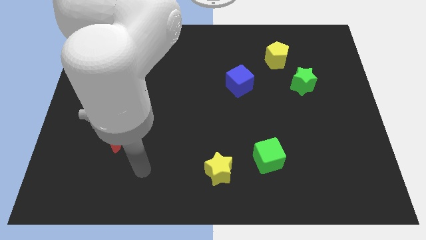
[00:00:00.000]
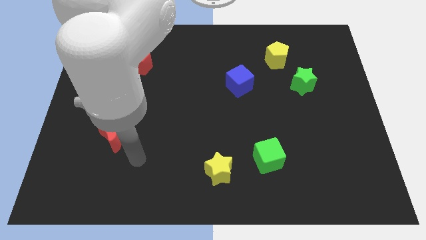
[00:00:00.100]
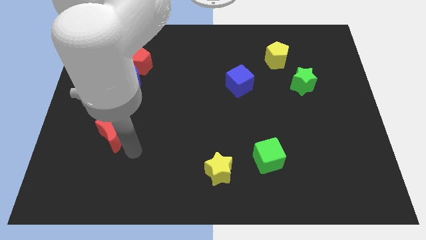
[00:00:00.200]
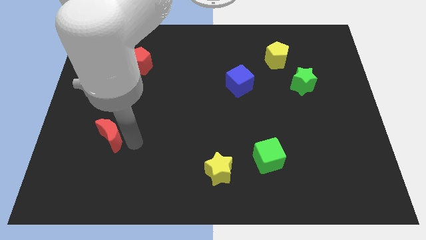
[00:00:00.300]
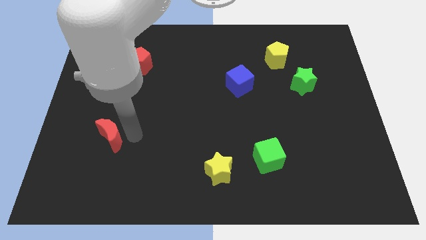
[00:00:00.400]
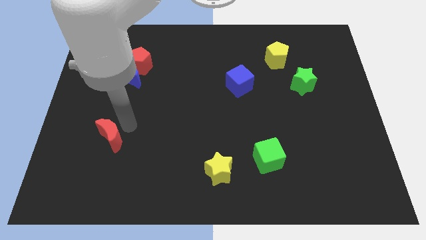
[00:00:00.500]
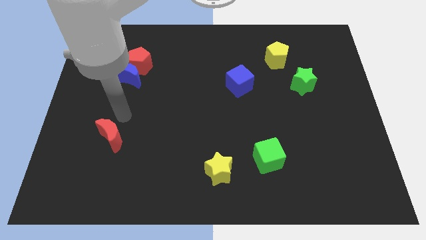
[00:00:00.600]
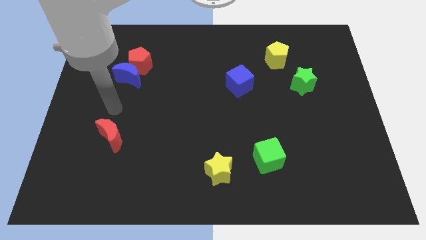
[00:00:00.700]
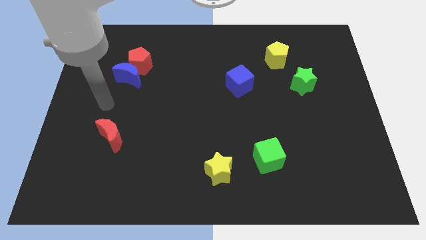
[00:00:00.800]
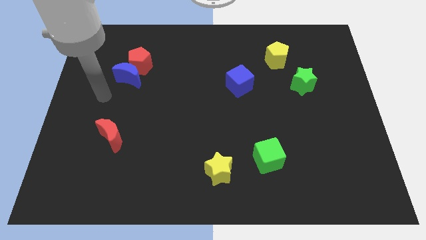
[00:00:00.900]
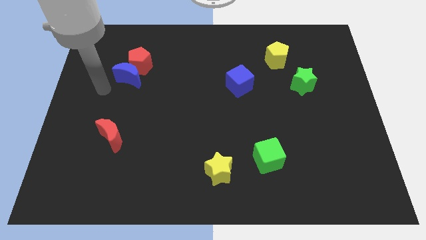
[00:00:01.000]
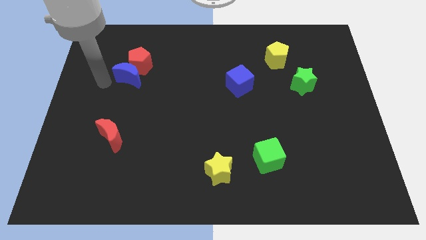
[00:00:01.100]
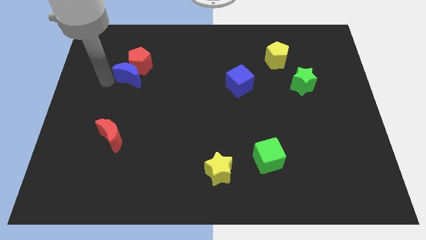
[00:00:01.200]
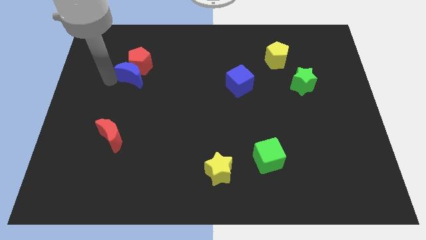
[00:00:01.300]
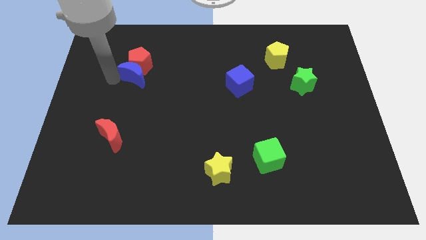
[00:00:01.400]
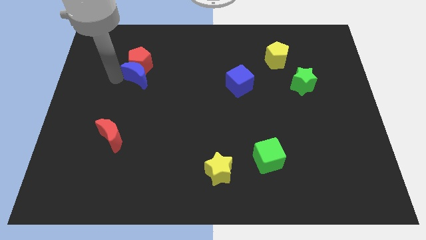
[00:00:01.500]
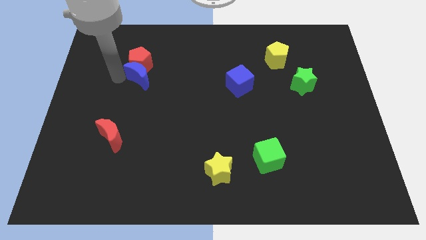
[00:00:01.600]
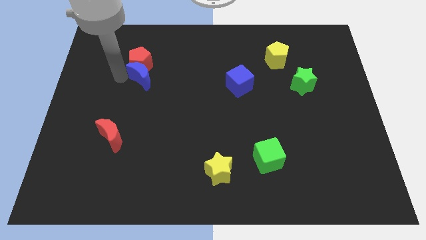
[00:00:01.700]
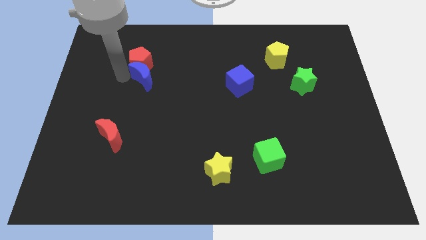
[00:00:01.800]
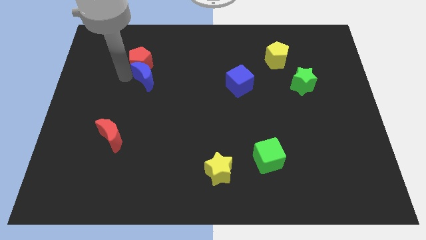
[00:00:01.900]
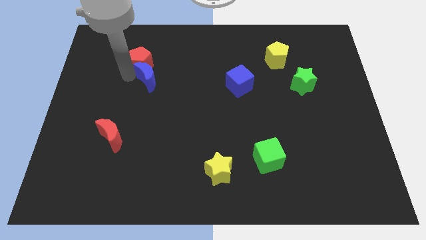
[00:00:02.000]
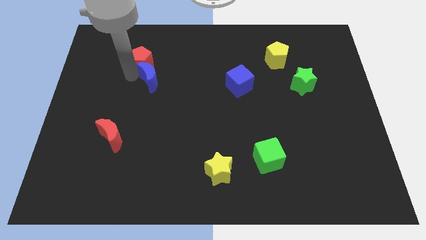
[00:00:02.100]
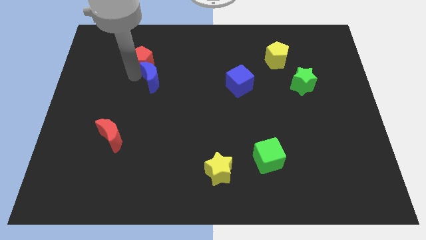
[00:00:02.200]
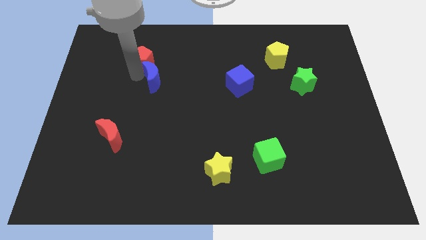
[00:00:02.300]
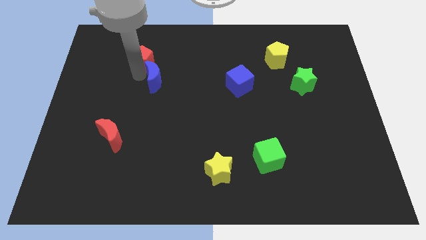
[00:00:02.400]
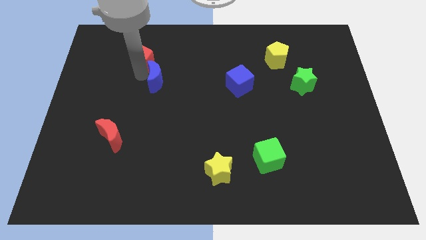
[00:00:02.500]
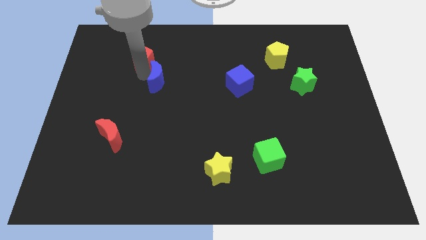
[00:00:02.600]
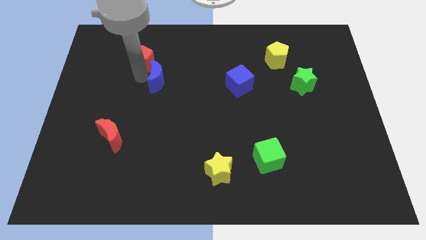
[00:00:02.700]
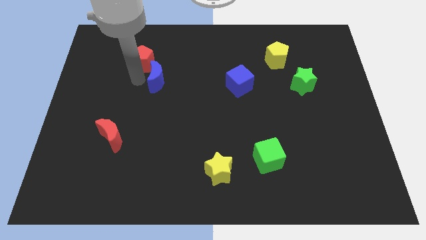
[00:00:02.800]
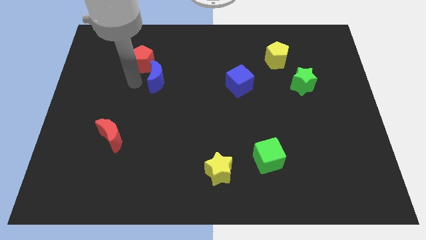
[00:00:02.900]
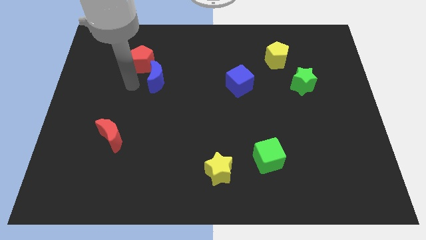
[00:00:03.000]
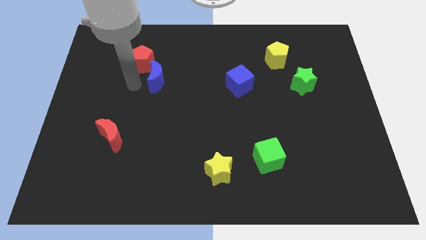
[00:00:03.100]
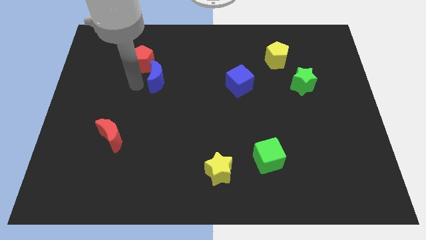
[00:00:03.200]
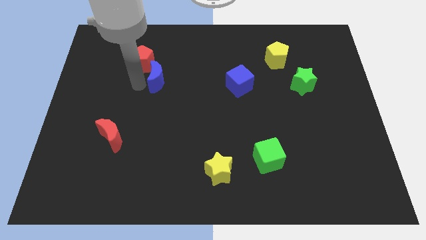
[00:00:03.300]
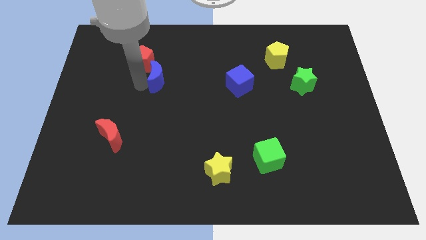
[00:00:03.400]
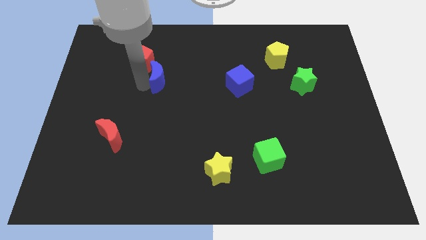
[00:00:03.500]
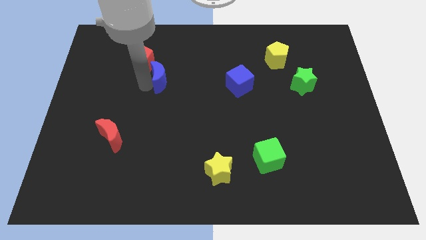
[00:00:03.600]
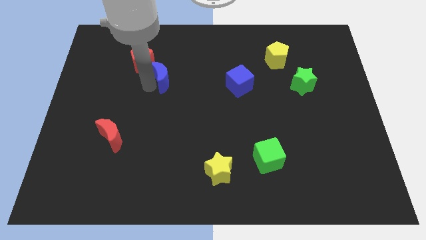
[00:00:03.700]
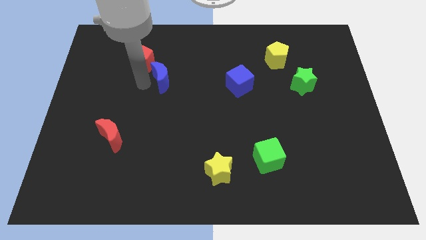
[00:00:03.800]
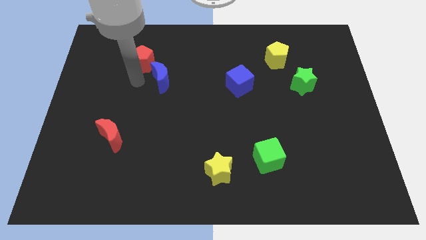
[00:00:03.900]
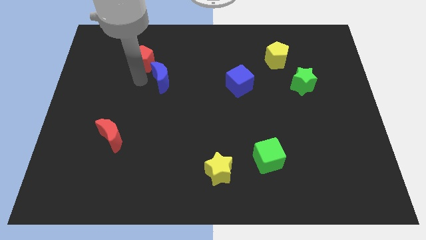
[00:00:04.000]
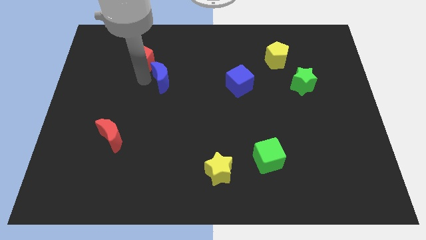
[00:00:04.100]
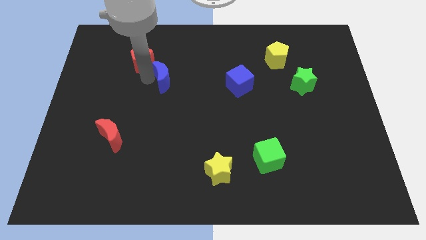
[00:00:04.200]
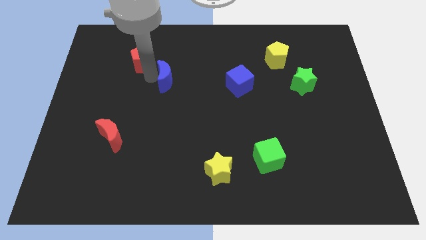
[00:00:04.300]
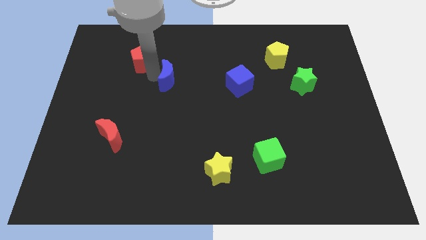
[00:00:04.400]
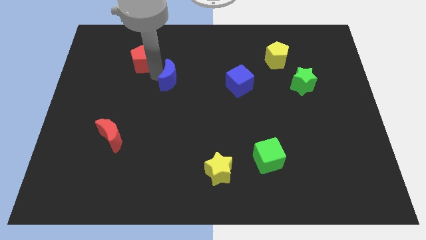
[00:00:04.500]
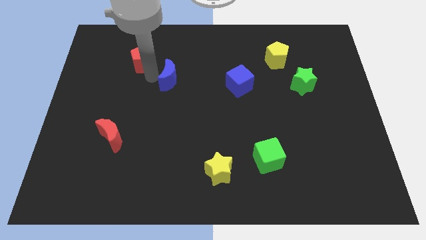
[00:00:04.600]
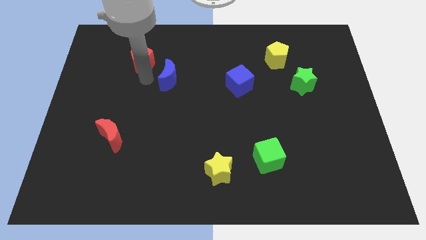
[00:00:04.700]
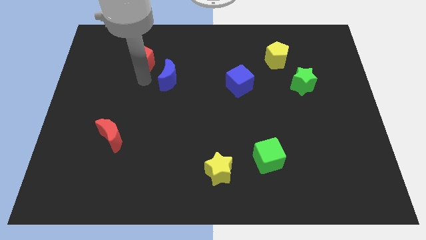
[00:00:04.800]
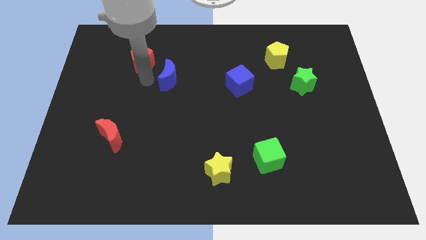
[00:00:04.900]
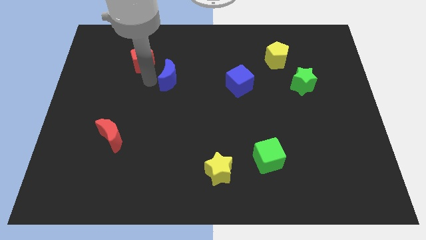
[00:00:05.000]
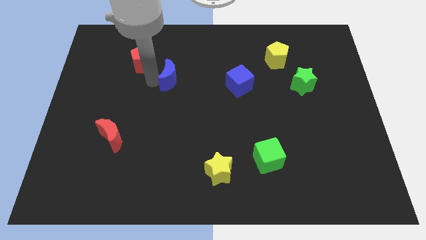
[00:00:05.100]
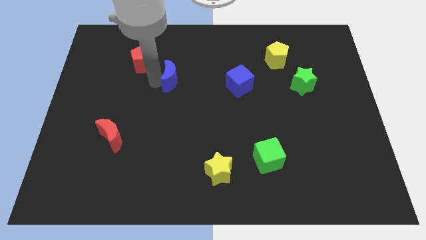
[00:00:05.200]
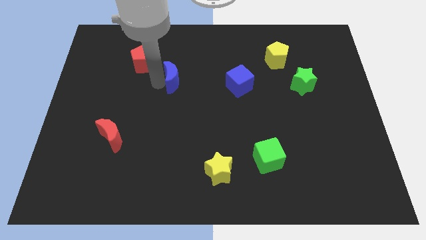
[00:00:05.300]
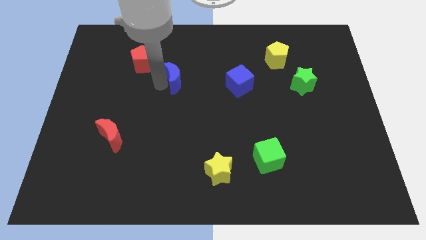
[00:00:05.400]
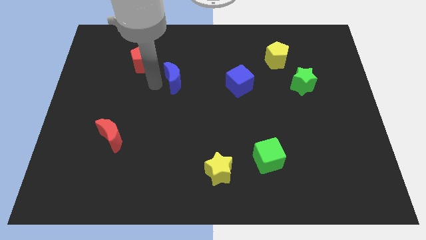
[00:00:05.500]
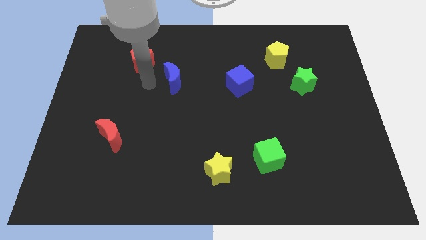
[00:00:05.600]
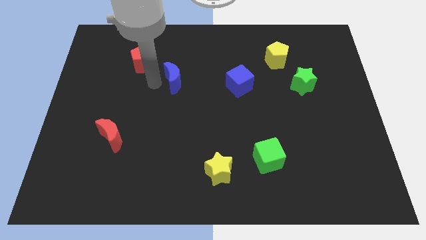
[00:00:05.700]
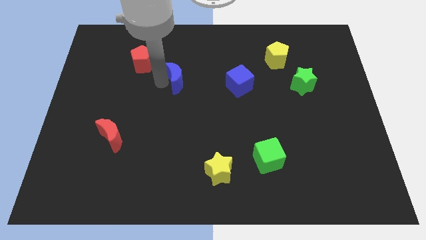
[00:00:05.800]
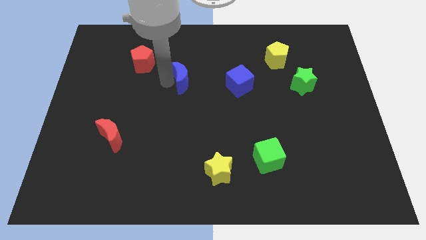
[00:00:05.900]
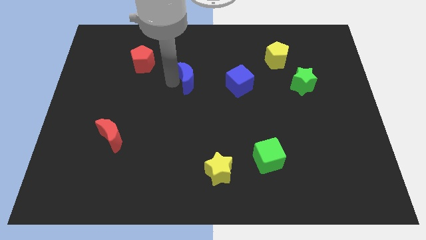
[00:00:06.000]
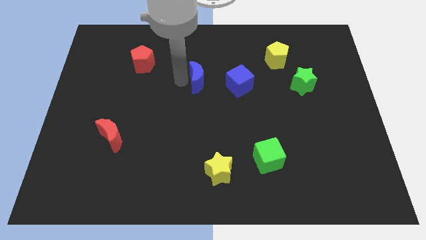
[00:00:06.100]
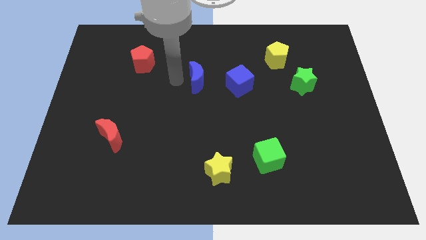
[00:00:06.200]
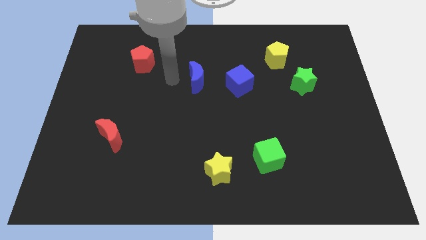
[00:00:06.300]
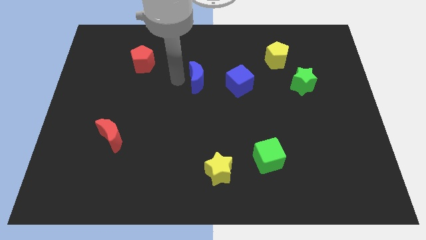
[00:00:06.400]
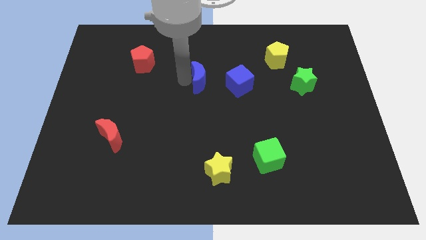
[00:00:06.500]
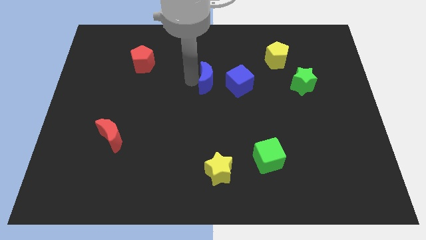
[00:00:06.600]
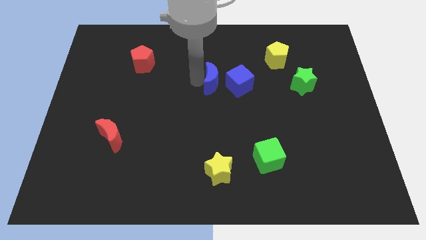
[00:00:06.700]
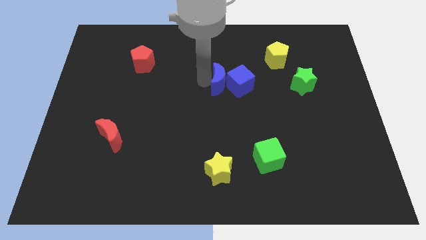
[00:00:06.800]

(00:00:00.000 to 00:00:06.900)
move the blue moon to the blue cube
